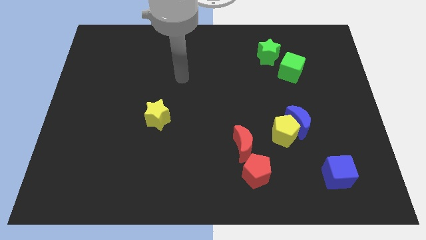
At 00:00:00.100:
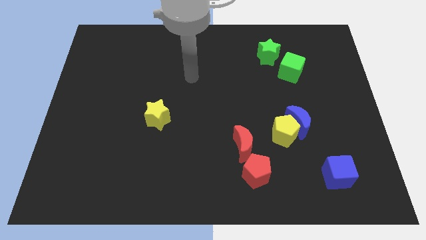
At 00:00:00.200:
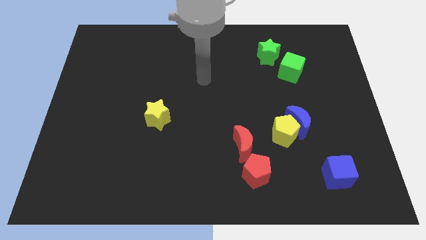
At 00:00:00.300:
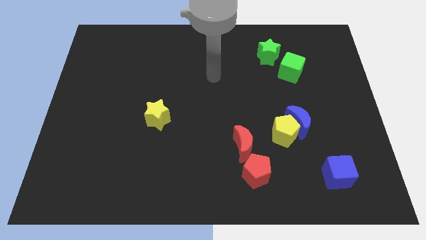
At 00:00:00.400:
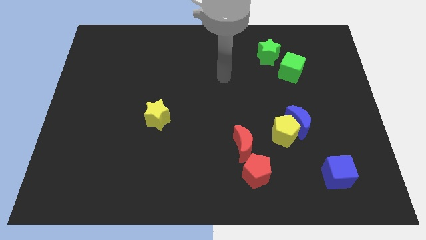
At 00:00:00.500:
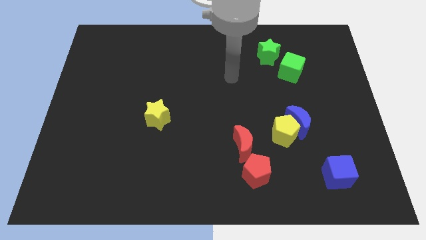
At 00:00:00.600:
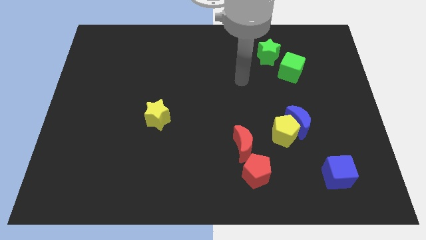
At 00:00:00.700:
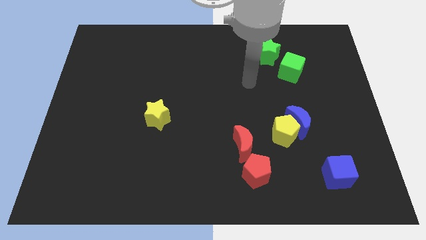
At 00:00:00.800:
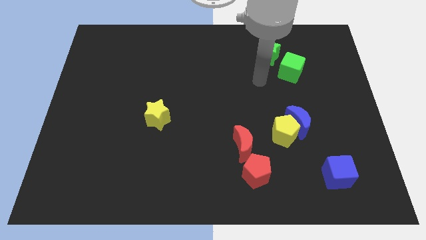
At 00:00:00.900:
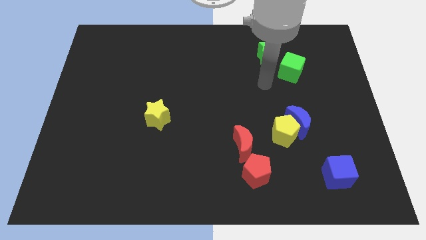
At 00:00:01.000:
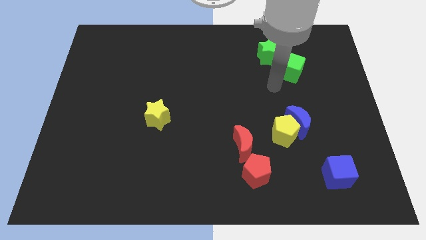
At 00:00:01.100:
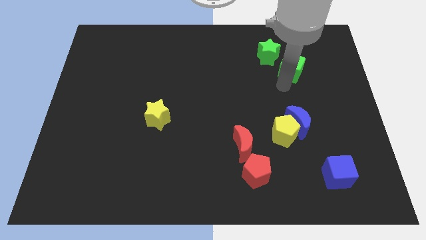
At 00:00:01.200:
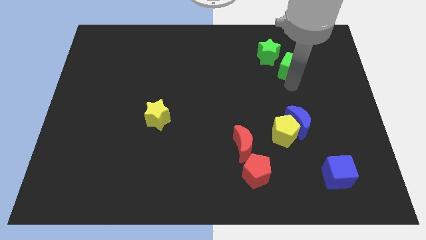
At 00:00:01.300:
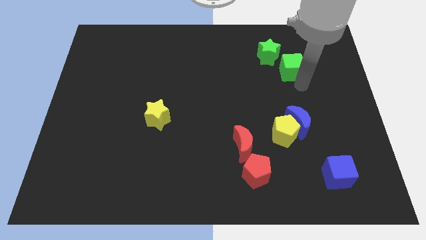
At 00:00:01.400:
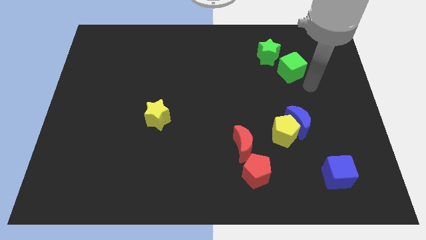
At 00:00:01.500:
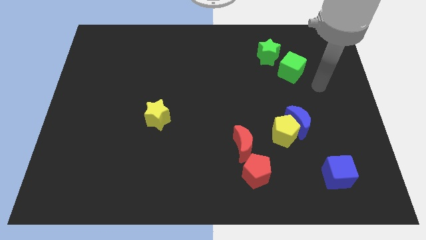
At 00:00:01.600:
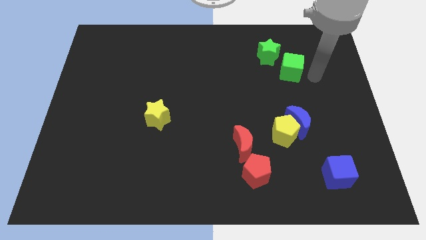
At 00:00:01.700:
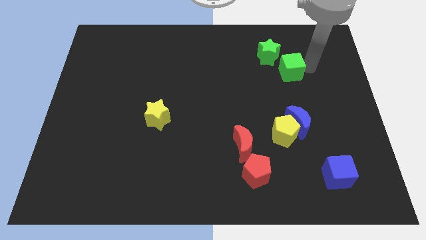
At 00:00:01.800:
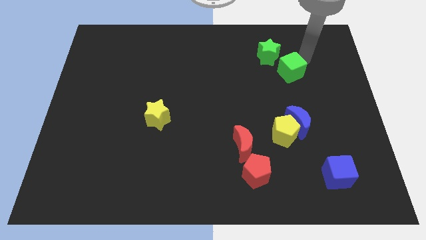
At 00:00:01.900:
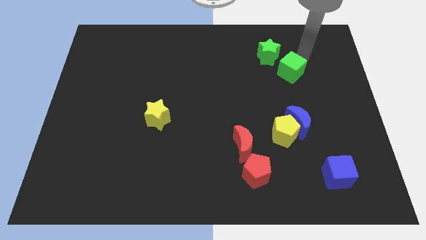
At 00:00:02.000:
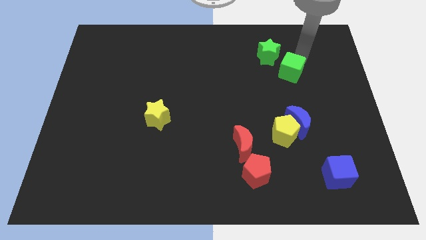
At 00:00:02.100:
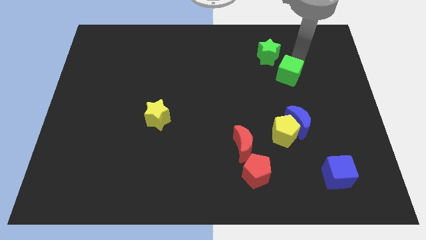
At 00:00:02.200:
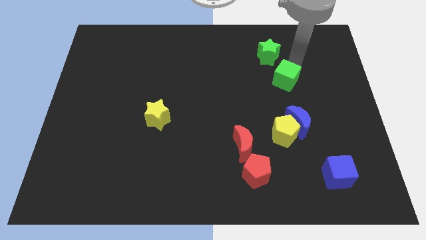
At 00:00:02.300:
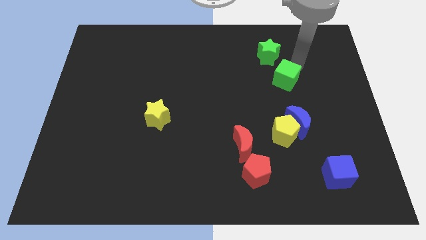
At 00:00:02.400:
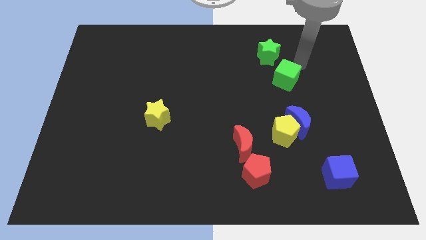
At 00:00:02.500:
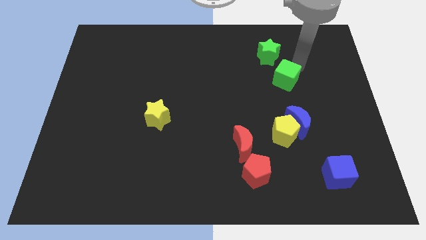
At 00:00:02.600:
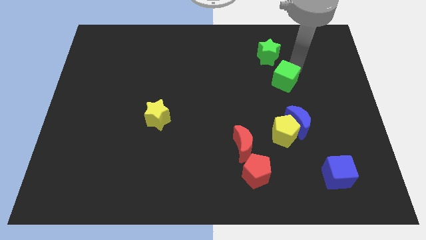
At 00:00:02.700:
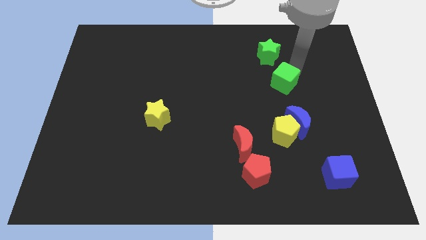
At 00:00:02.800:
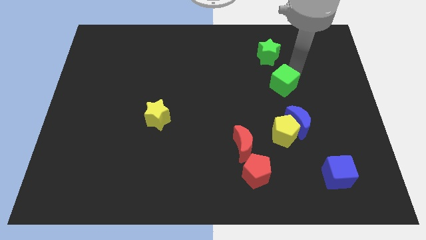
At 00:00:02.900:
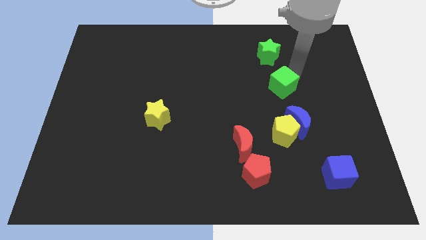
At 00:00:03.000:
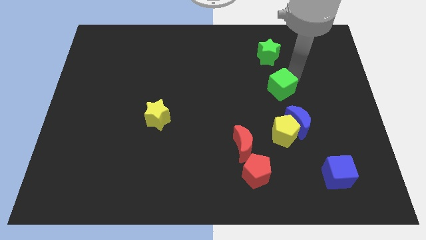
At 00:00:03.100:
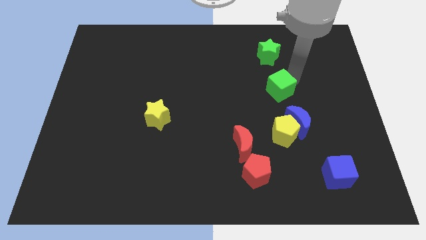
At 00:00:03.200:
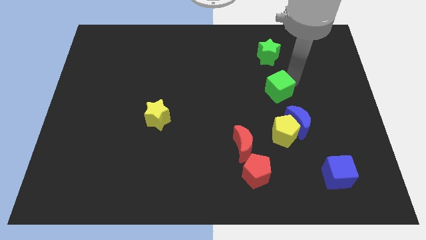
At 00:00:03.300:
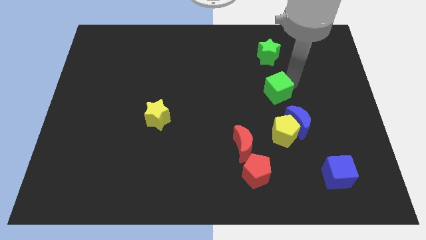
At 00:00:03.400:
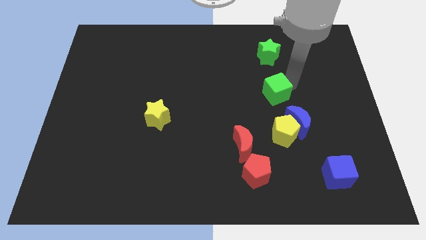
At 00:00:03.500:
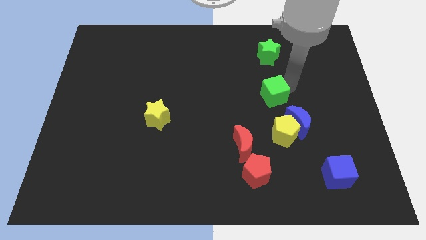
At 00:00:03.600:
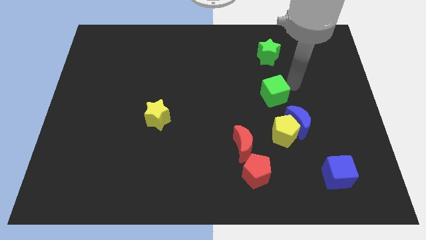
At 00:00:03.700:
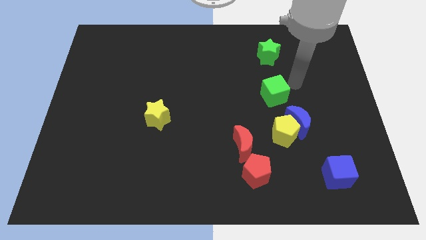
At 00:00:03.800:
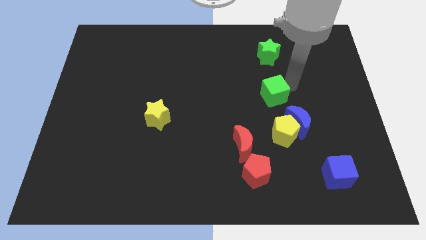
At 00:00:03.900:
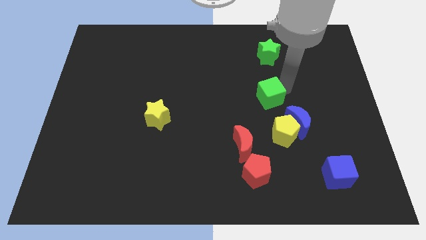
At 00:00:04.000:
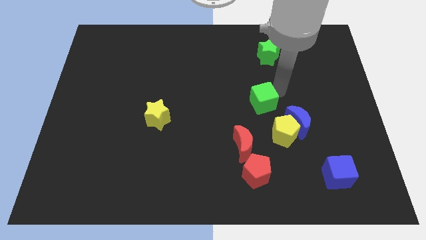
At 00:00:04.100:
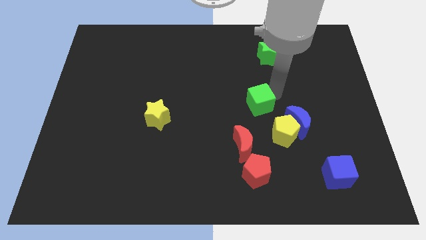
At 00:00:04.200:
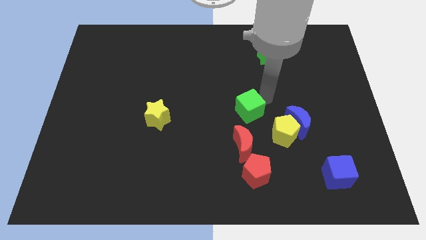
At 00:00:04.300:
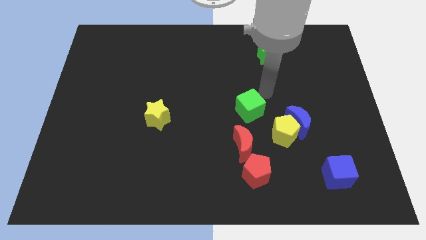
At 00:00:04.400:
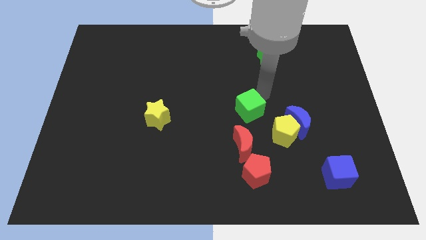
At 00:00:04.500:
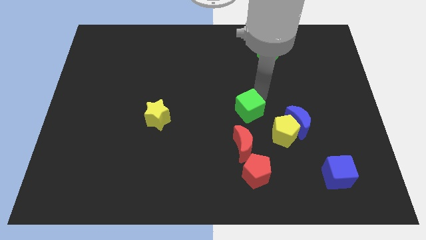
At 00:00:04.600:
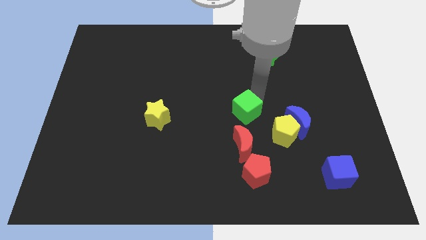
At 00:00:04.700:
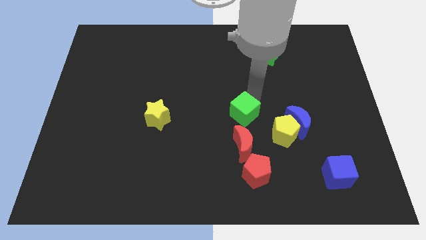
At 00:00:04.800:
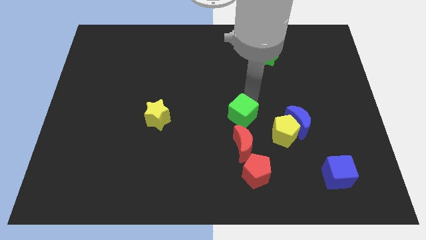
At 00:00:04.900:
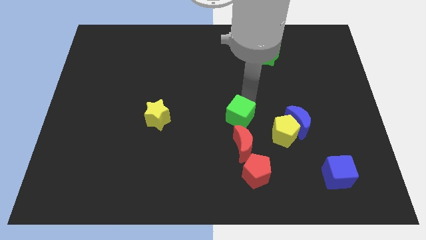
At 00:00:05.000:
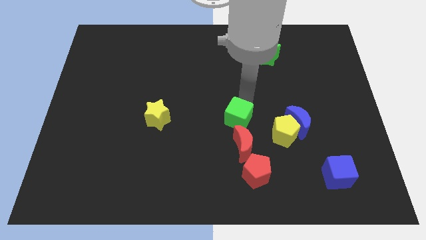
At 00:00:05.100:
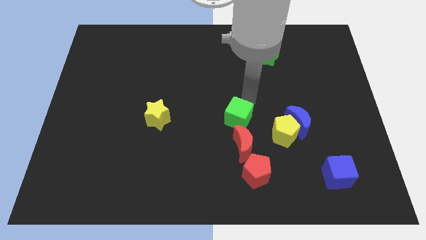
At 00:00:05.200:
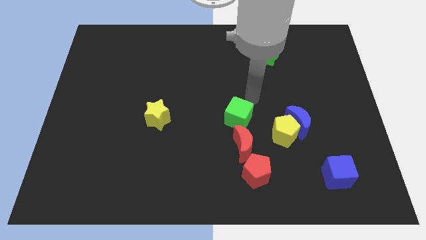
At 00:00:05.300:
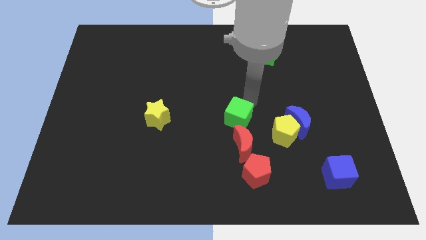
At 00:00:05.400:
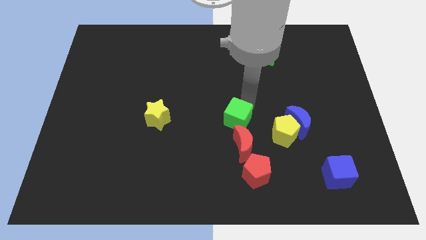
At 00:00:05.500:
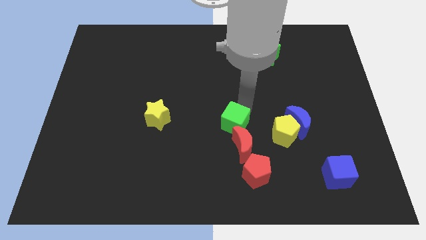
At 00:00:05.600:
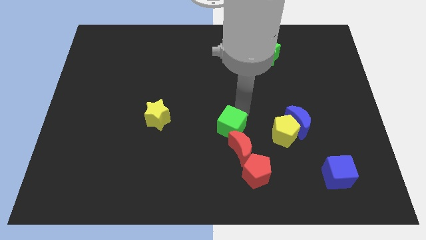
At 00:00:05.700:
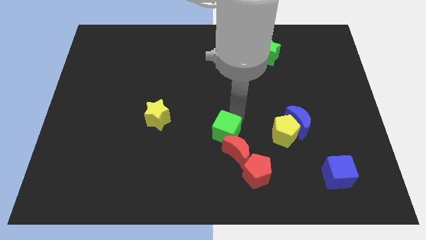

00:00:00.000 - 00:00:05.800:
slide the green cube to the top left side of the red pentagon

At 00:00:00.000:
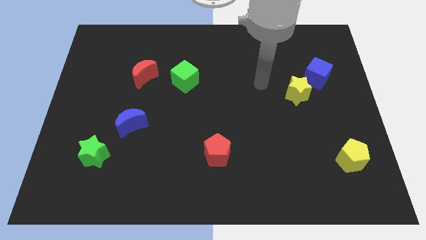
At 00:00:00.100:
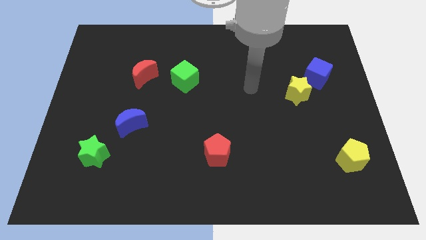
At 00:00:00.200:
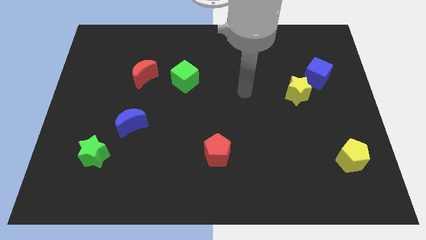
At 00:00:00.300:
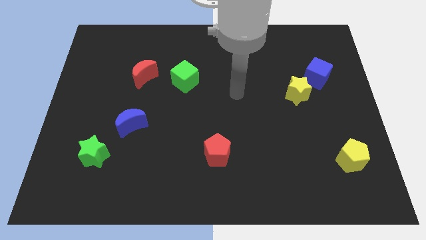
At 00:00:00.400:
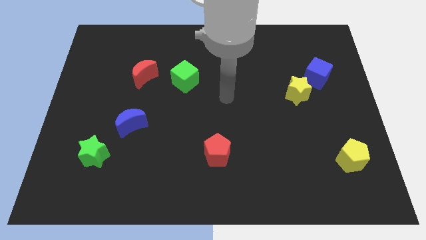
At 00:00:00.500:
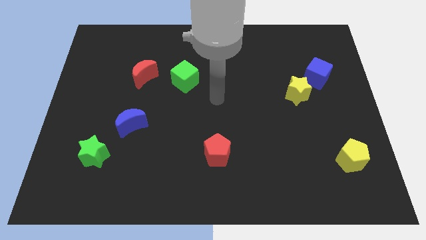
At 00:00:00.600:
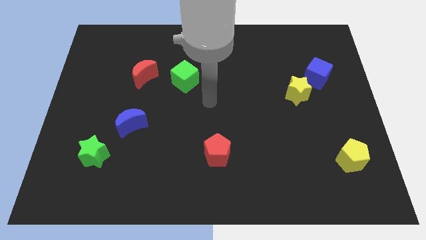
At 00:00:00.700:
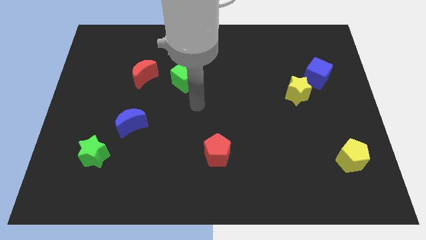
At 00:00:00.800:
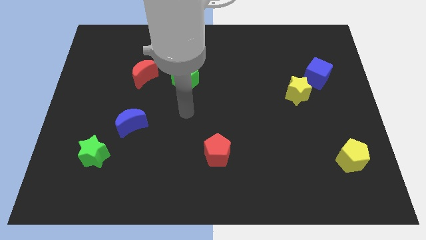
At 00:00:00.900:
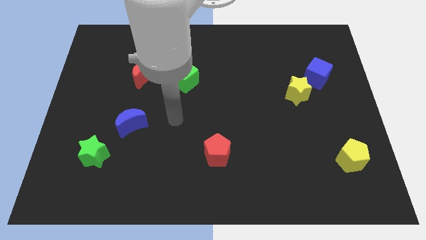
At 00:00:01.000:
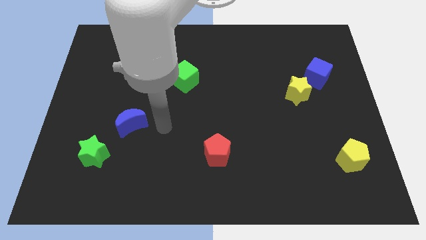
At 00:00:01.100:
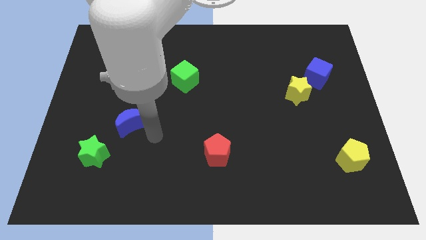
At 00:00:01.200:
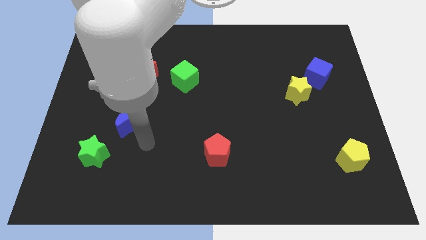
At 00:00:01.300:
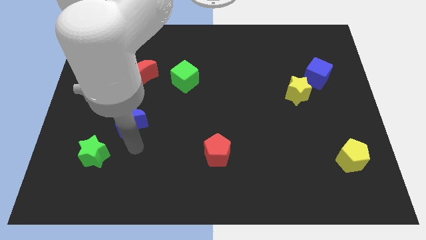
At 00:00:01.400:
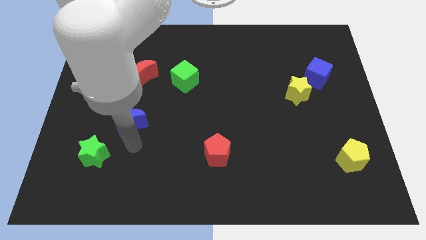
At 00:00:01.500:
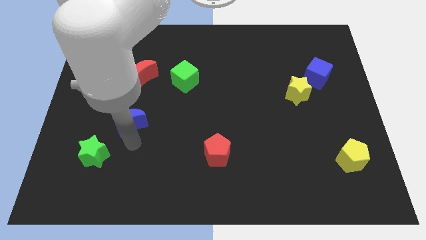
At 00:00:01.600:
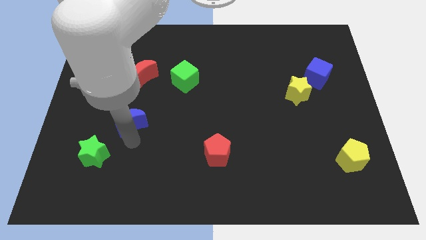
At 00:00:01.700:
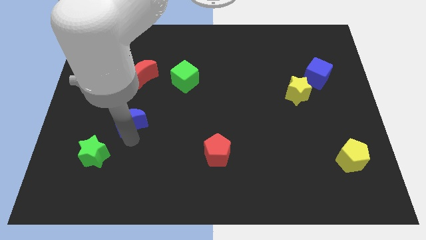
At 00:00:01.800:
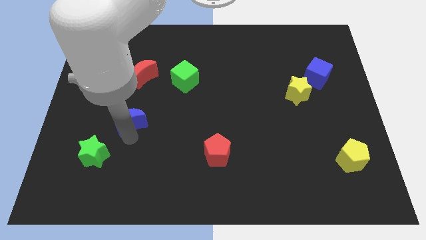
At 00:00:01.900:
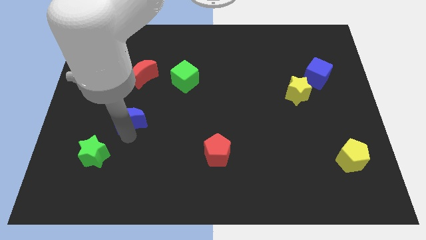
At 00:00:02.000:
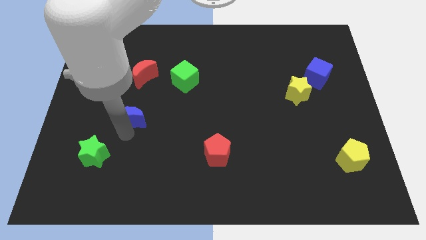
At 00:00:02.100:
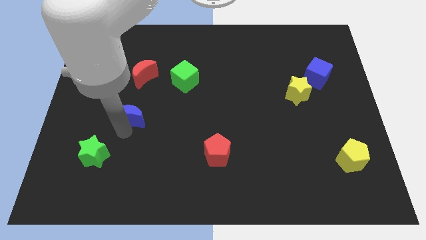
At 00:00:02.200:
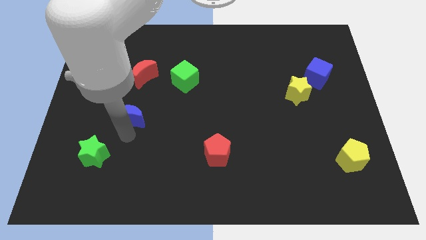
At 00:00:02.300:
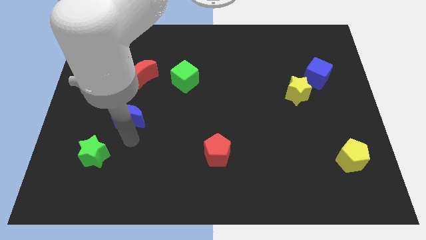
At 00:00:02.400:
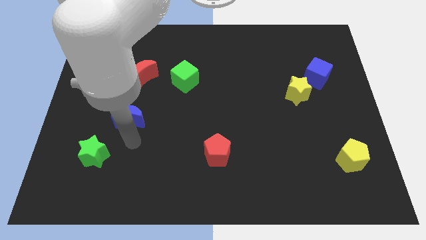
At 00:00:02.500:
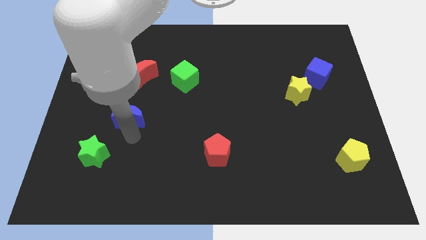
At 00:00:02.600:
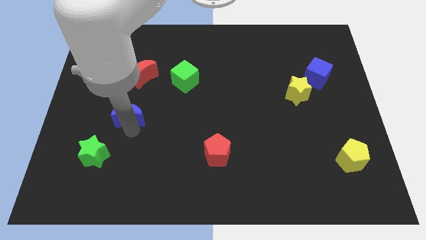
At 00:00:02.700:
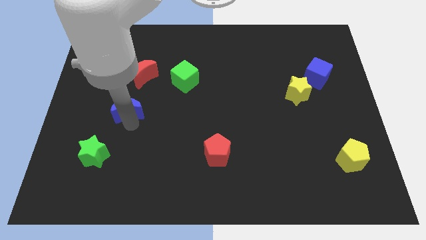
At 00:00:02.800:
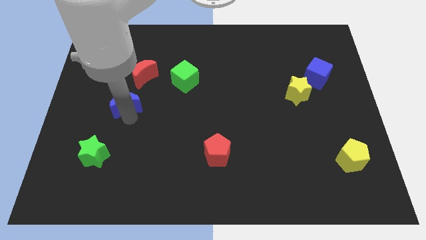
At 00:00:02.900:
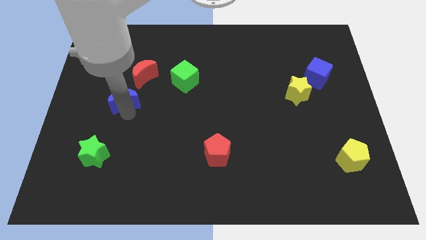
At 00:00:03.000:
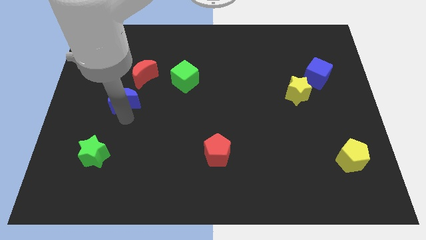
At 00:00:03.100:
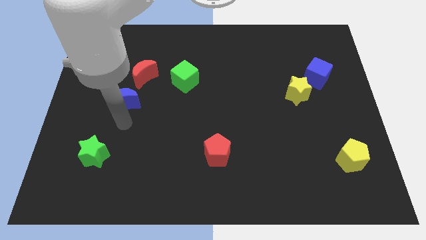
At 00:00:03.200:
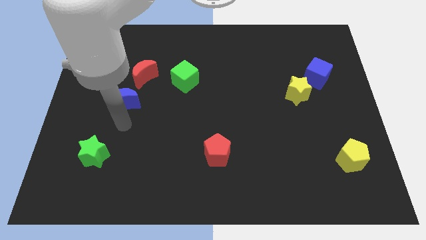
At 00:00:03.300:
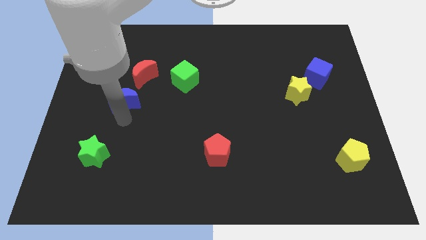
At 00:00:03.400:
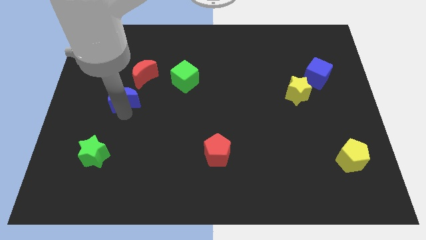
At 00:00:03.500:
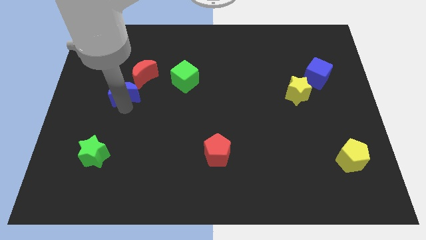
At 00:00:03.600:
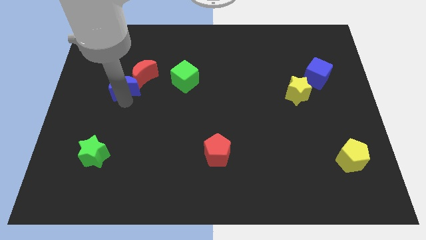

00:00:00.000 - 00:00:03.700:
slide the blue moon to the left of the green cube
